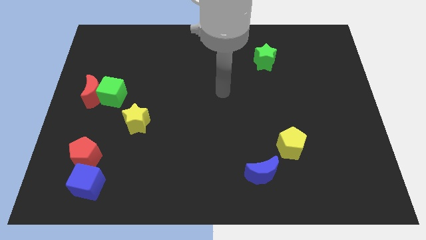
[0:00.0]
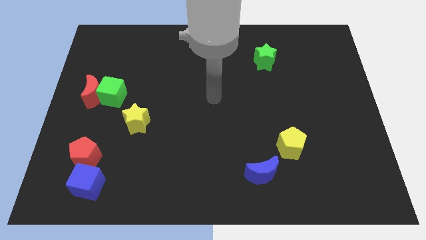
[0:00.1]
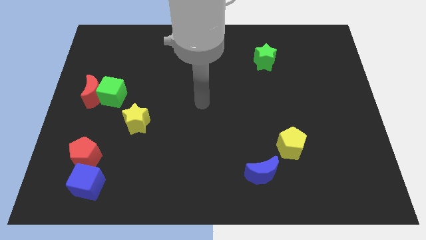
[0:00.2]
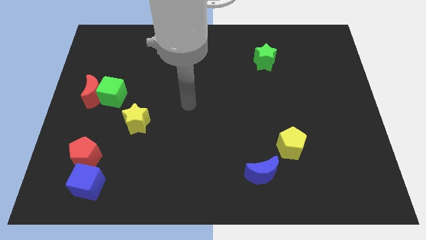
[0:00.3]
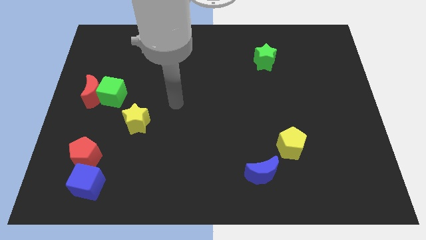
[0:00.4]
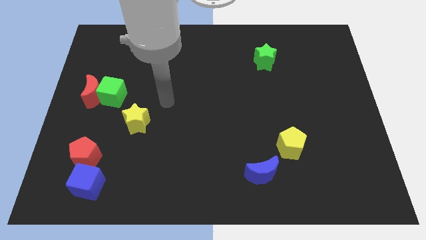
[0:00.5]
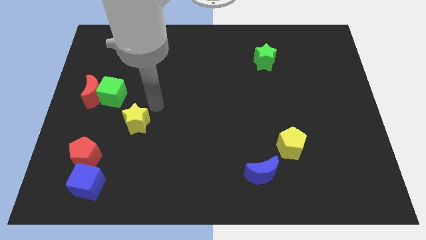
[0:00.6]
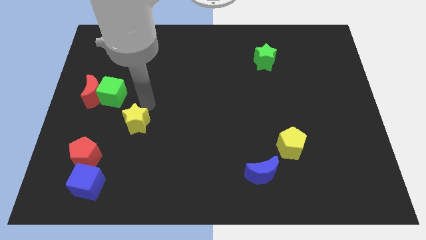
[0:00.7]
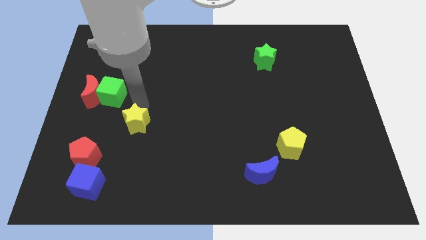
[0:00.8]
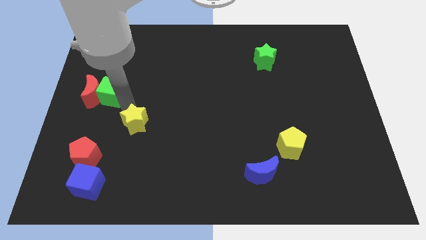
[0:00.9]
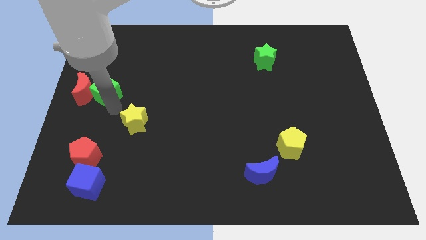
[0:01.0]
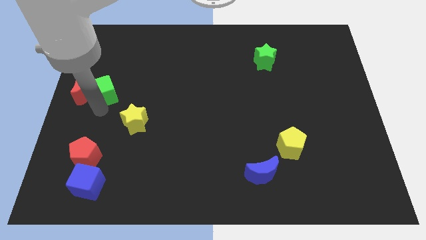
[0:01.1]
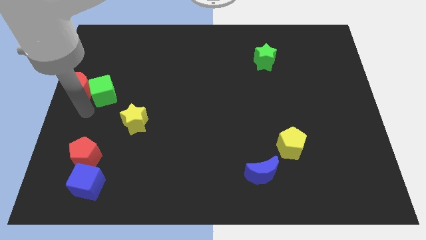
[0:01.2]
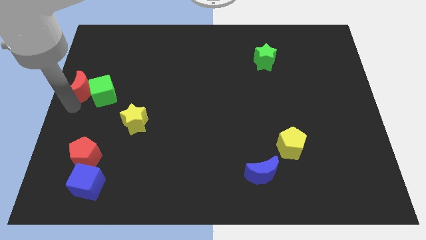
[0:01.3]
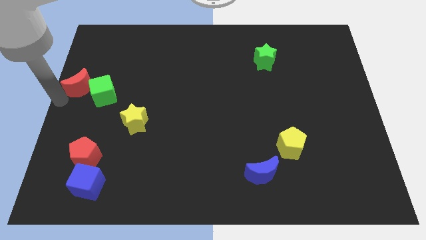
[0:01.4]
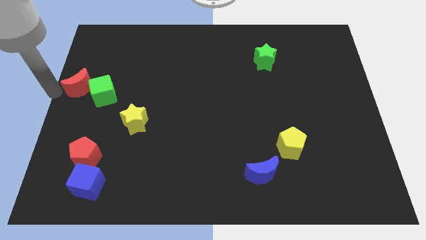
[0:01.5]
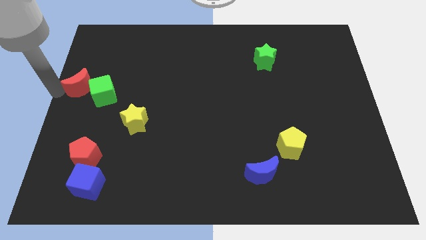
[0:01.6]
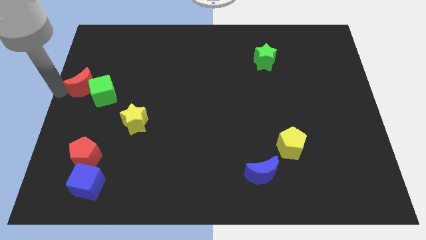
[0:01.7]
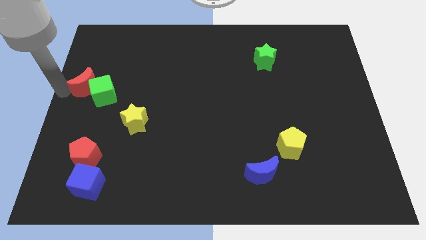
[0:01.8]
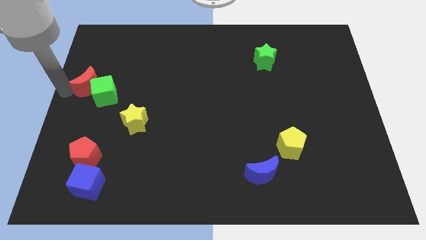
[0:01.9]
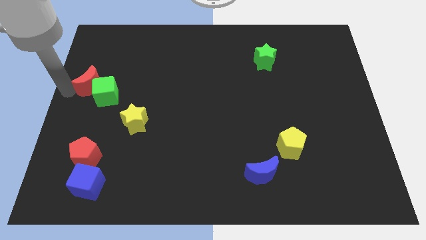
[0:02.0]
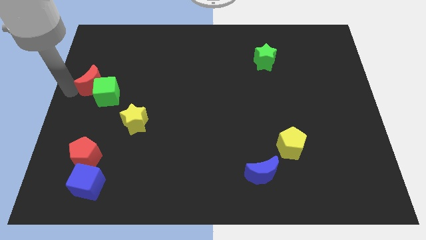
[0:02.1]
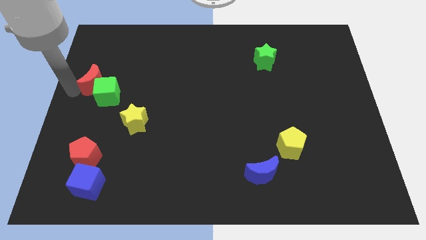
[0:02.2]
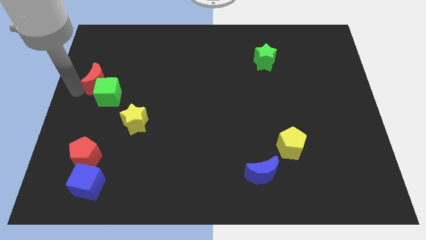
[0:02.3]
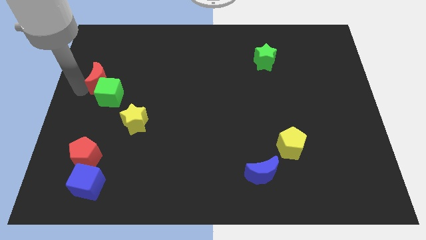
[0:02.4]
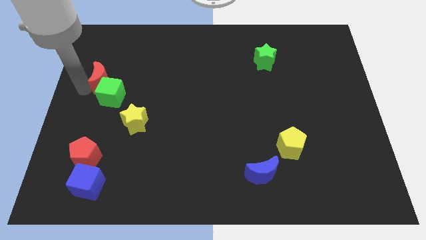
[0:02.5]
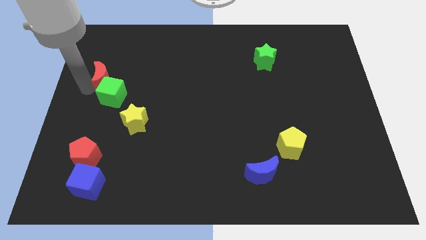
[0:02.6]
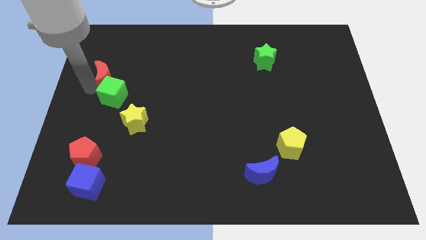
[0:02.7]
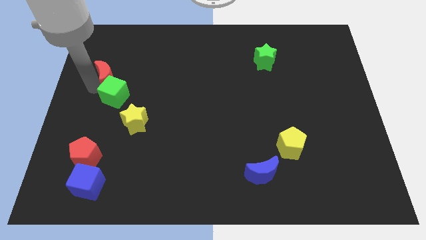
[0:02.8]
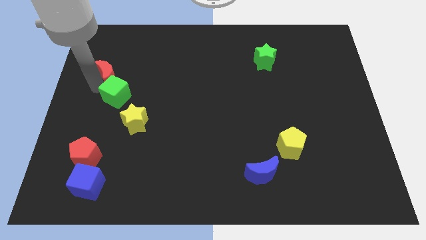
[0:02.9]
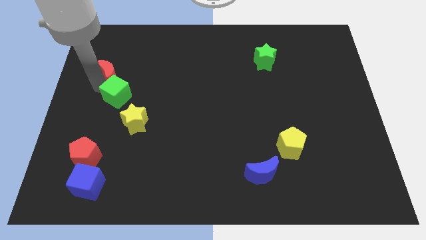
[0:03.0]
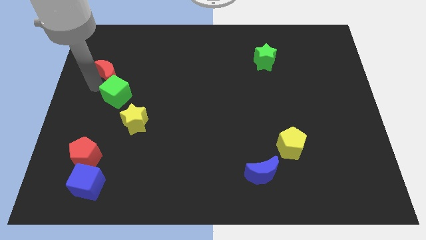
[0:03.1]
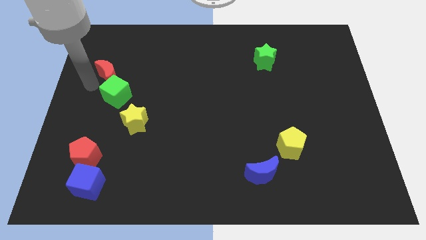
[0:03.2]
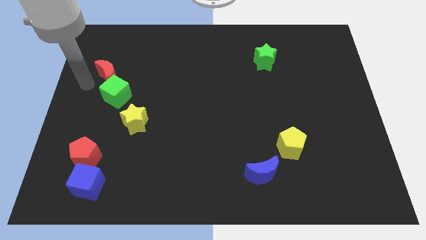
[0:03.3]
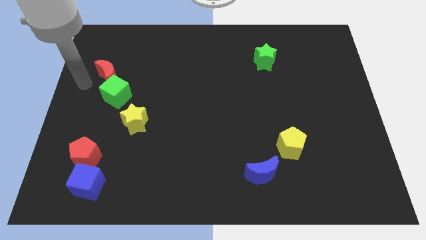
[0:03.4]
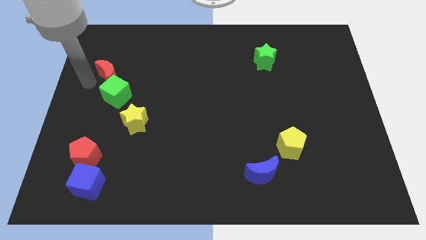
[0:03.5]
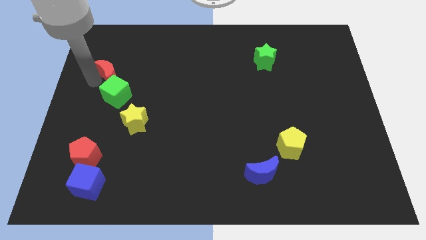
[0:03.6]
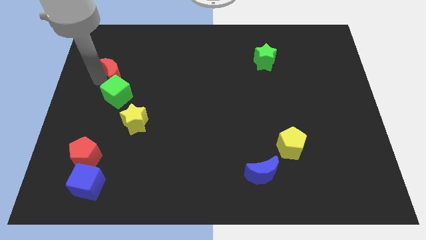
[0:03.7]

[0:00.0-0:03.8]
slightly slide the red moon diagonally up and to the right

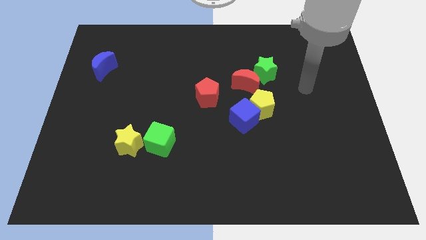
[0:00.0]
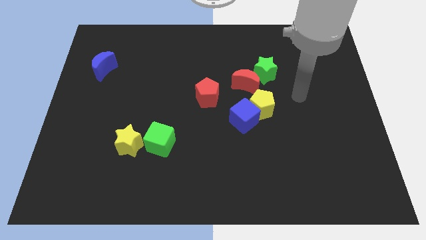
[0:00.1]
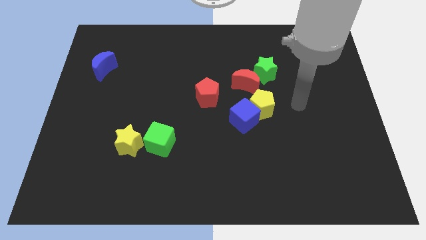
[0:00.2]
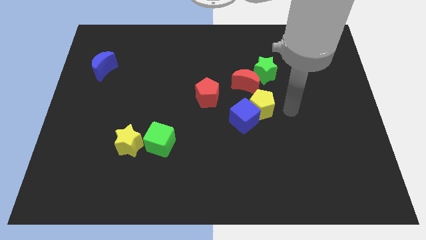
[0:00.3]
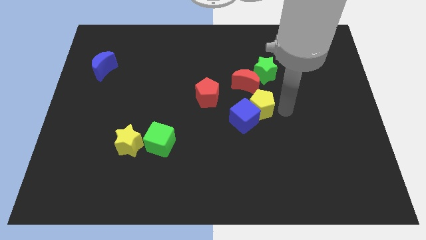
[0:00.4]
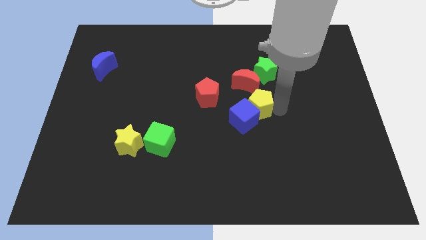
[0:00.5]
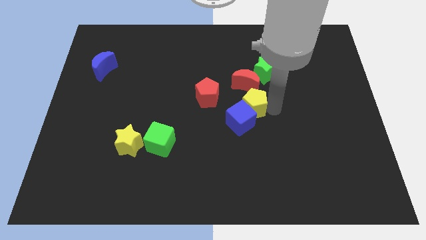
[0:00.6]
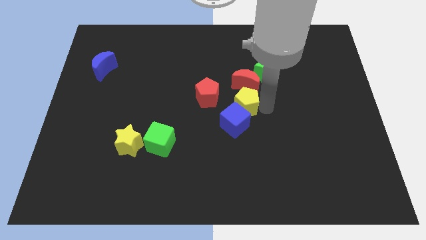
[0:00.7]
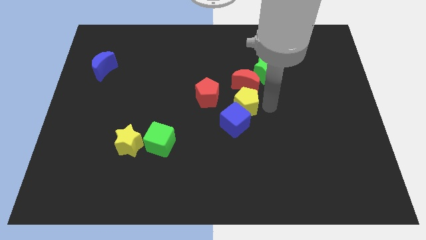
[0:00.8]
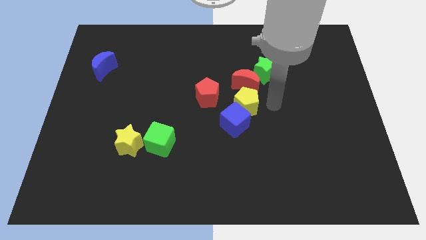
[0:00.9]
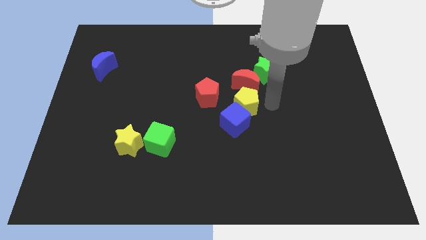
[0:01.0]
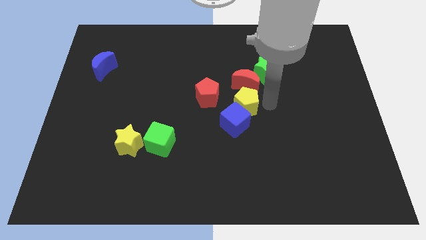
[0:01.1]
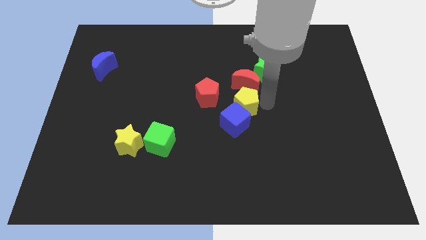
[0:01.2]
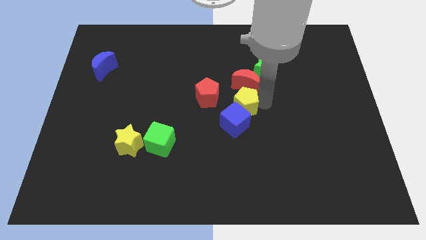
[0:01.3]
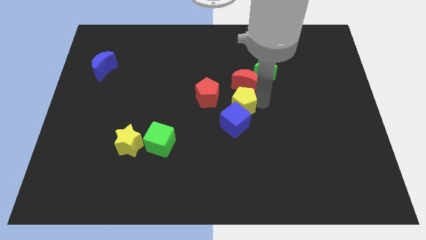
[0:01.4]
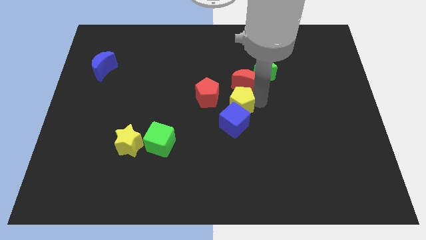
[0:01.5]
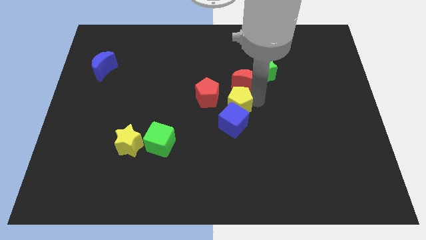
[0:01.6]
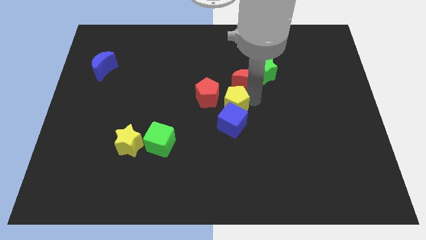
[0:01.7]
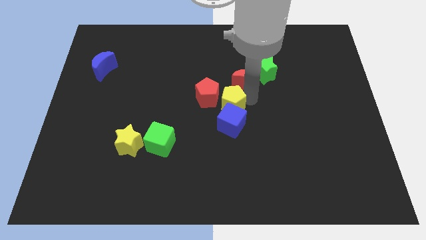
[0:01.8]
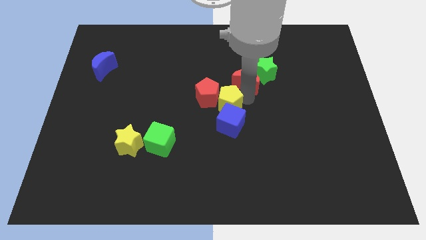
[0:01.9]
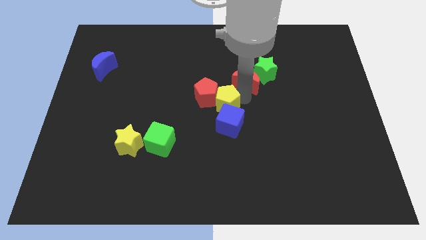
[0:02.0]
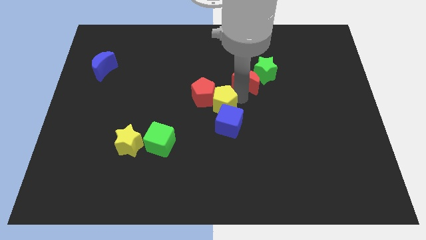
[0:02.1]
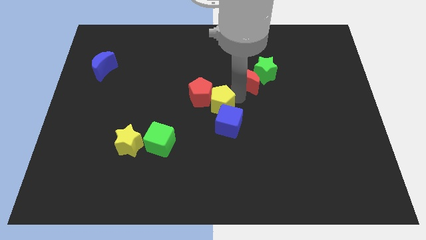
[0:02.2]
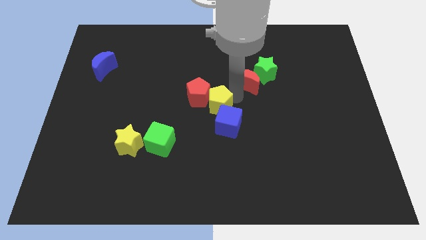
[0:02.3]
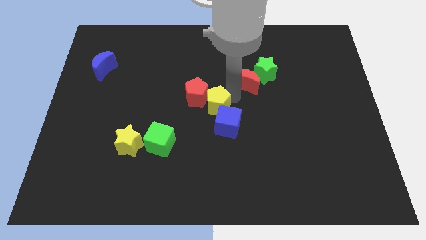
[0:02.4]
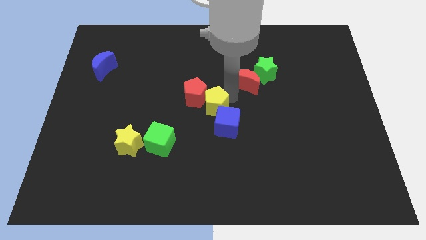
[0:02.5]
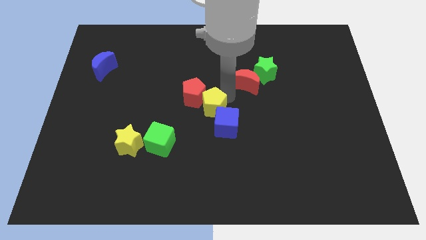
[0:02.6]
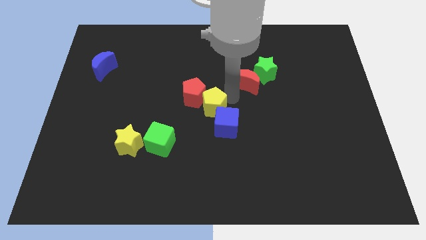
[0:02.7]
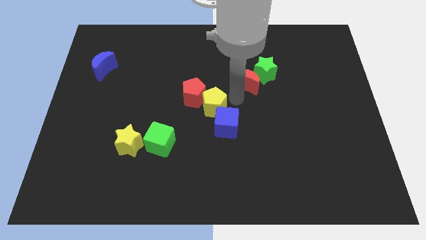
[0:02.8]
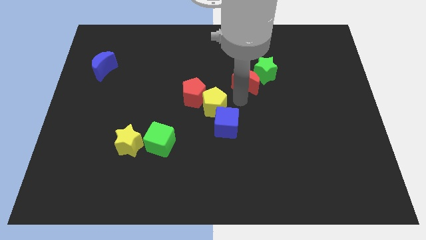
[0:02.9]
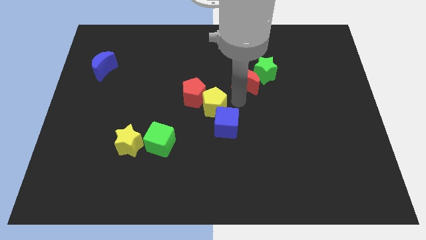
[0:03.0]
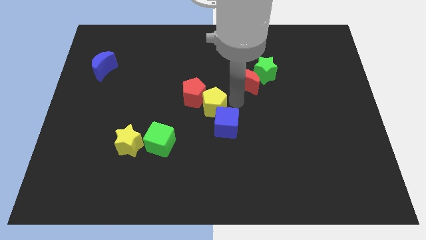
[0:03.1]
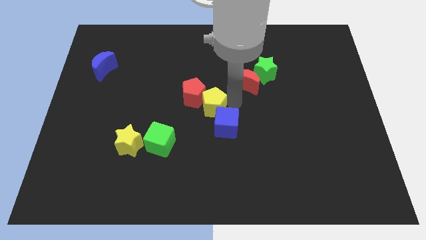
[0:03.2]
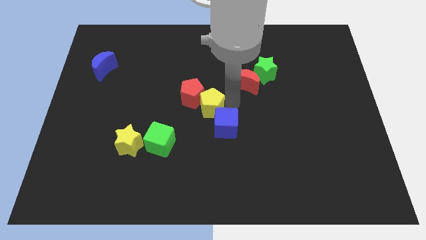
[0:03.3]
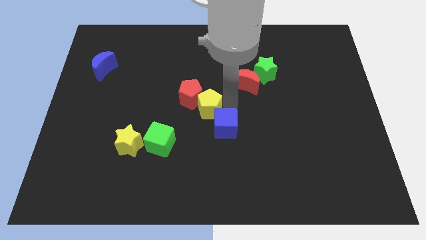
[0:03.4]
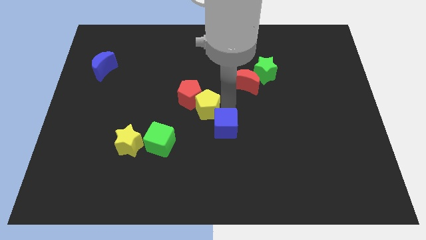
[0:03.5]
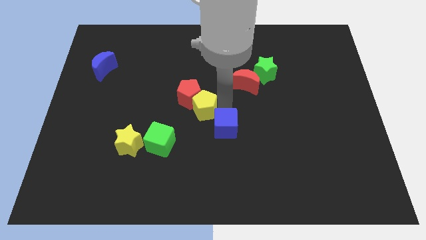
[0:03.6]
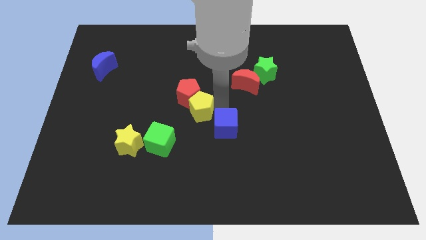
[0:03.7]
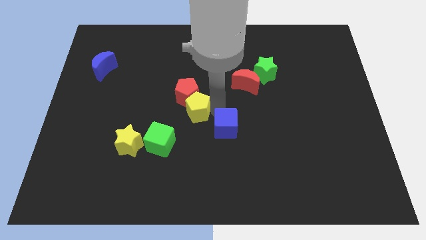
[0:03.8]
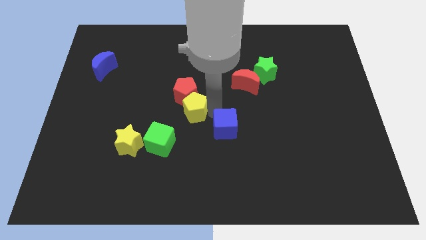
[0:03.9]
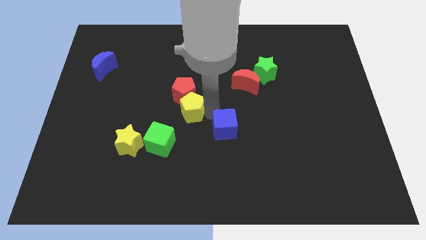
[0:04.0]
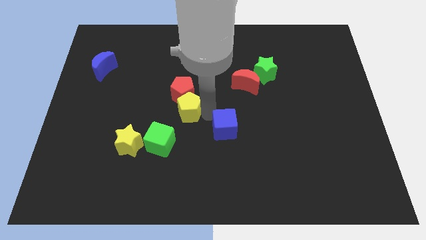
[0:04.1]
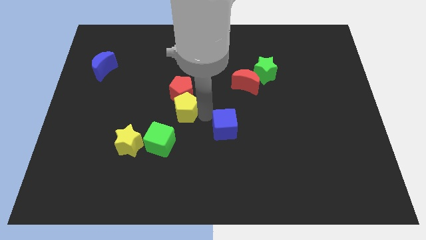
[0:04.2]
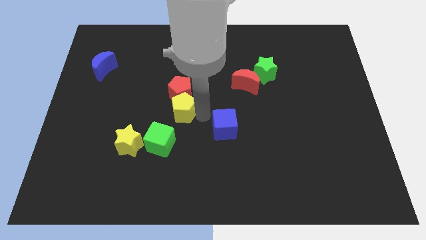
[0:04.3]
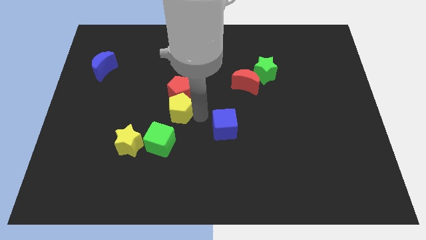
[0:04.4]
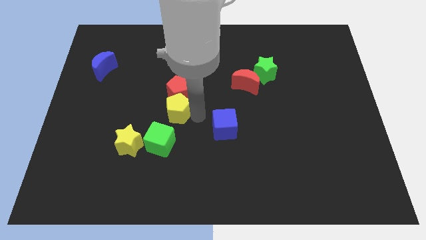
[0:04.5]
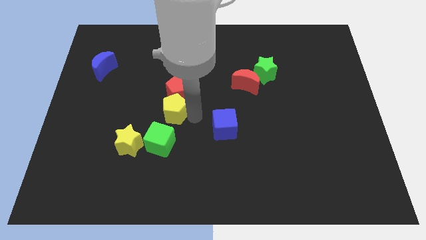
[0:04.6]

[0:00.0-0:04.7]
push the yellow pentagon to the left
